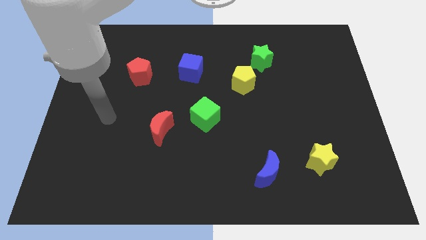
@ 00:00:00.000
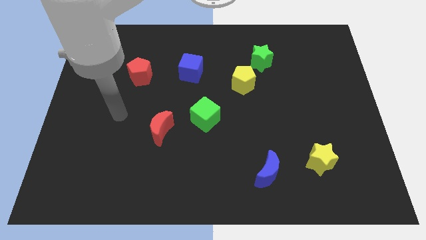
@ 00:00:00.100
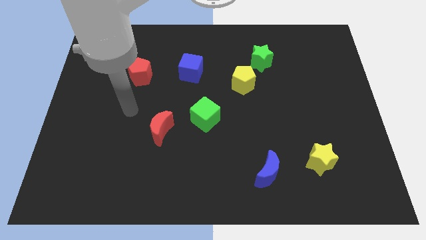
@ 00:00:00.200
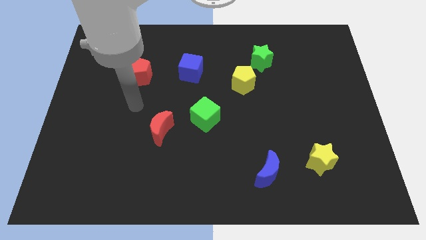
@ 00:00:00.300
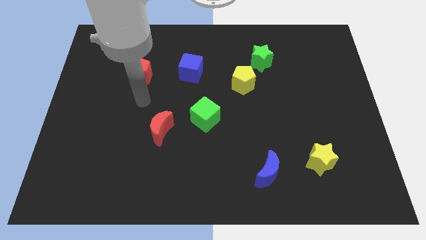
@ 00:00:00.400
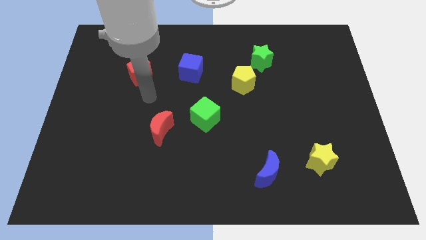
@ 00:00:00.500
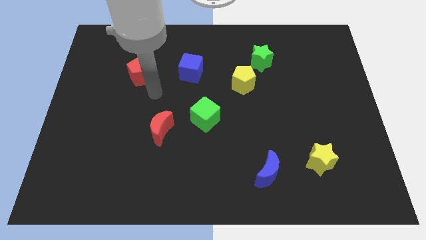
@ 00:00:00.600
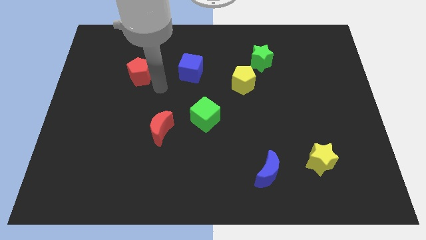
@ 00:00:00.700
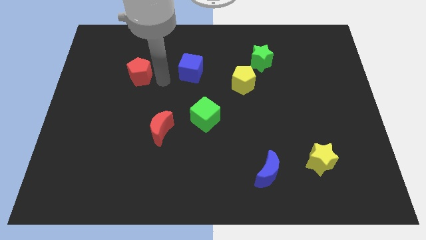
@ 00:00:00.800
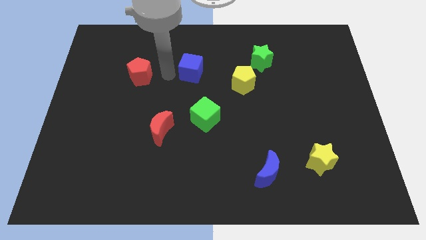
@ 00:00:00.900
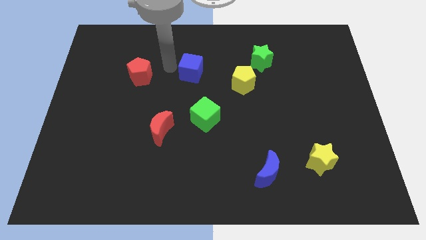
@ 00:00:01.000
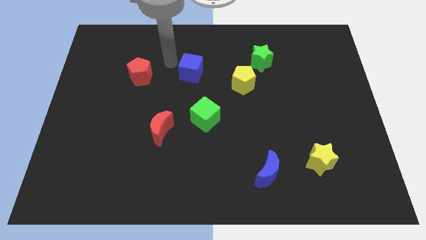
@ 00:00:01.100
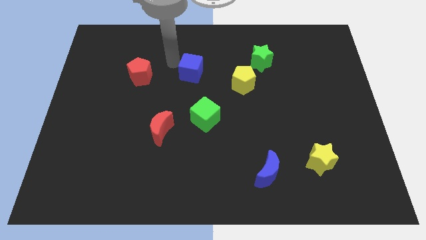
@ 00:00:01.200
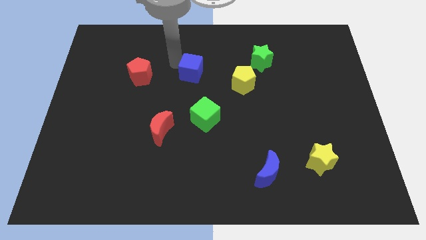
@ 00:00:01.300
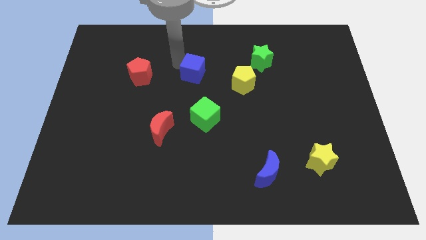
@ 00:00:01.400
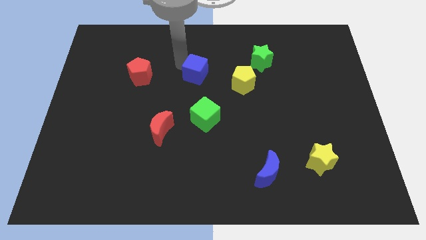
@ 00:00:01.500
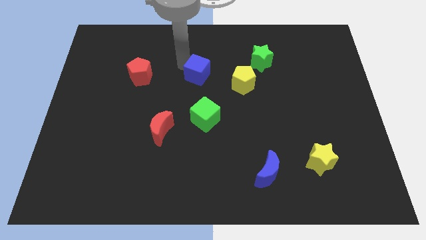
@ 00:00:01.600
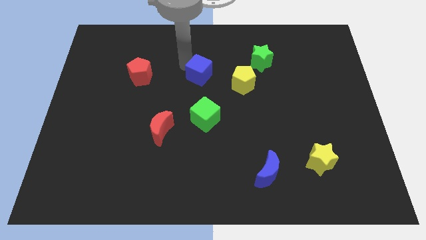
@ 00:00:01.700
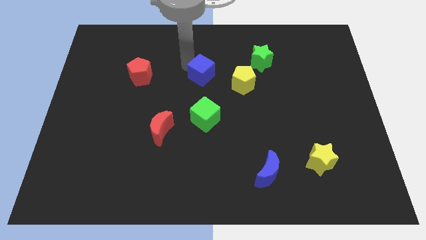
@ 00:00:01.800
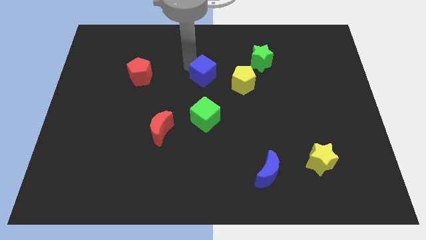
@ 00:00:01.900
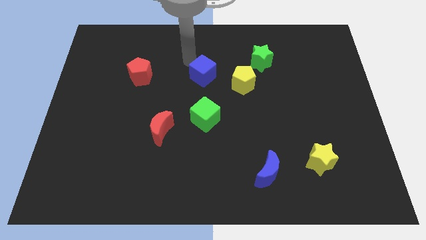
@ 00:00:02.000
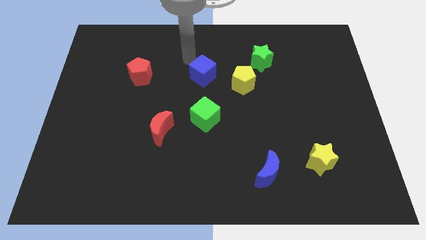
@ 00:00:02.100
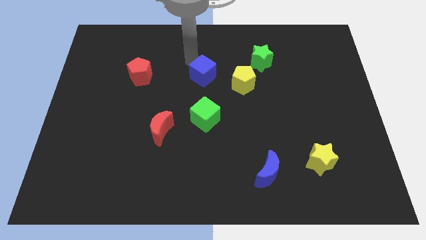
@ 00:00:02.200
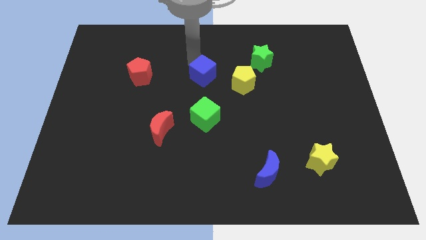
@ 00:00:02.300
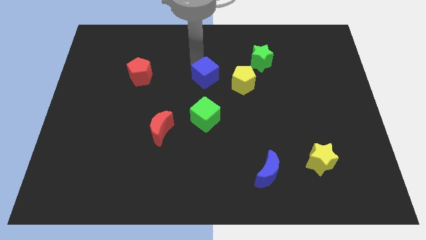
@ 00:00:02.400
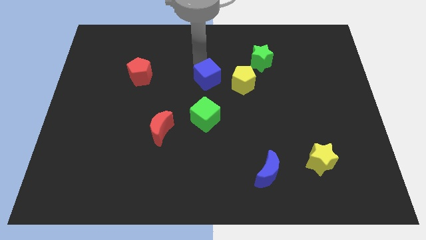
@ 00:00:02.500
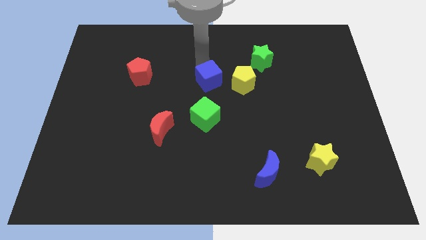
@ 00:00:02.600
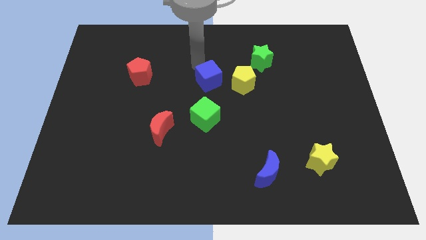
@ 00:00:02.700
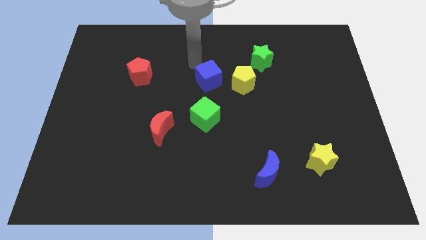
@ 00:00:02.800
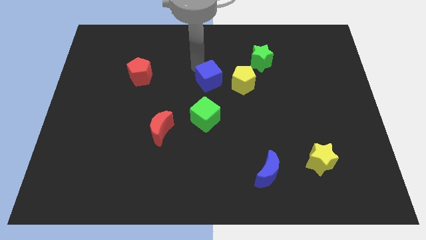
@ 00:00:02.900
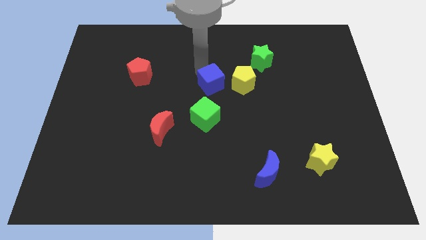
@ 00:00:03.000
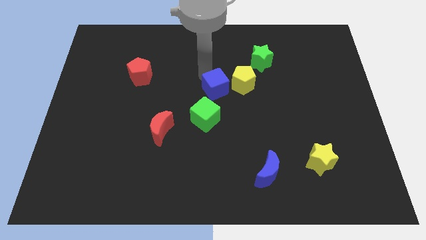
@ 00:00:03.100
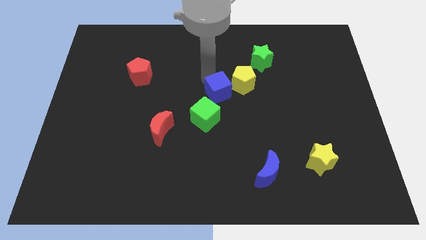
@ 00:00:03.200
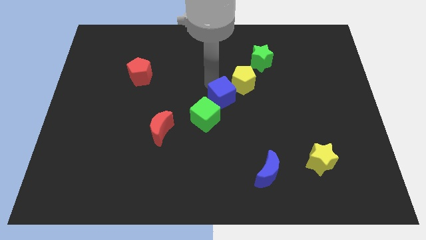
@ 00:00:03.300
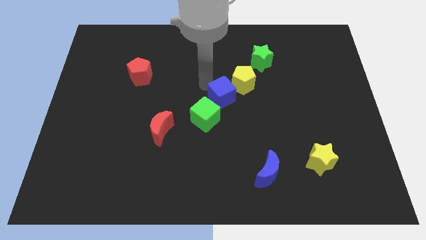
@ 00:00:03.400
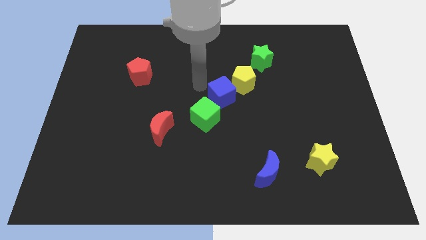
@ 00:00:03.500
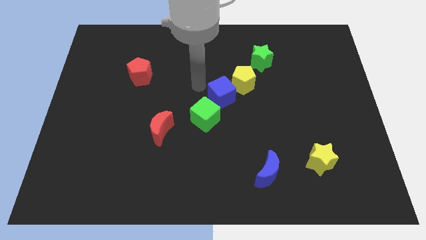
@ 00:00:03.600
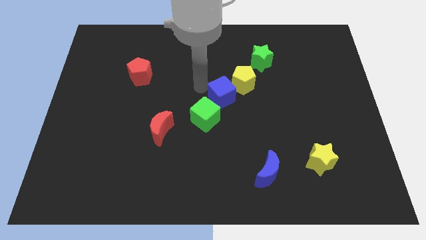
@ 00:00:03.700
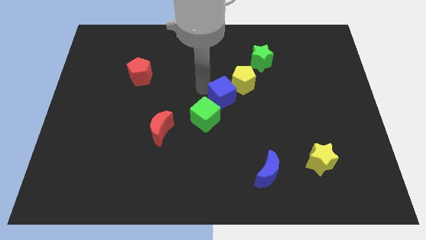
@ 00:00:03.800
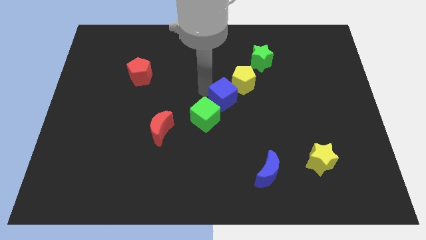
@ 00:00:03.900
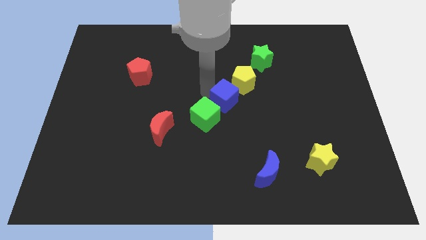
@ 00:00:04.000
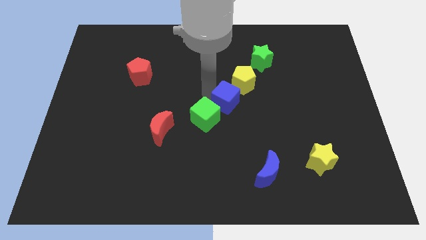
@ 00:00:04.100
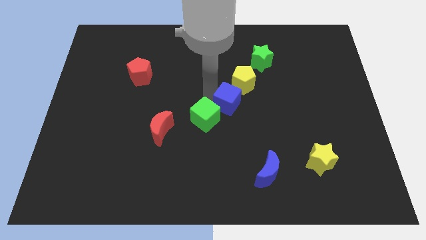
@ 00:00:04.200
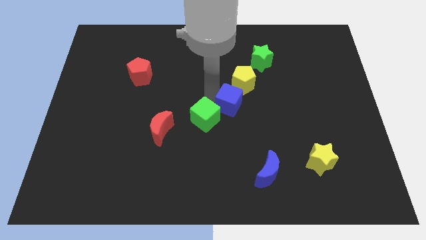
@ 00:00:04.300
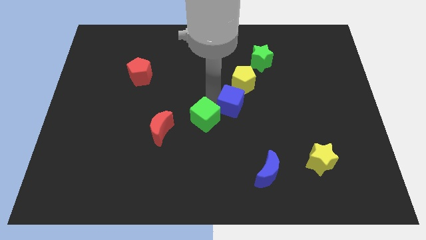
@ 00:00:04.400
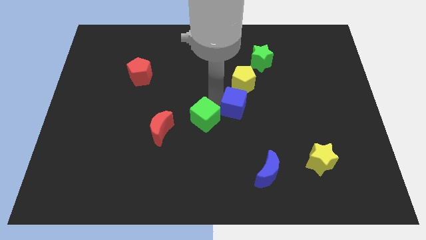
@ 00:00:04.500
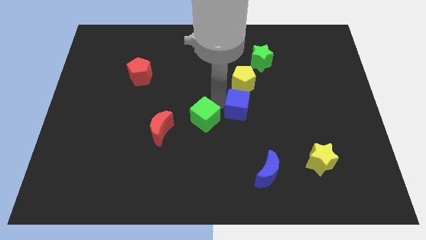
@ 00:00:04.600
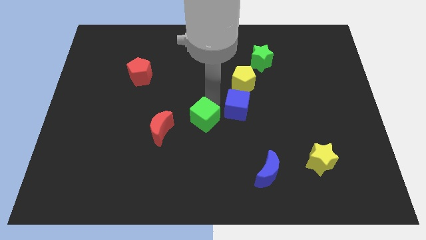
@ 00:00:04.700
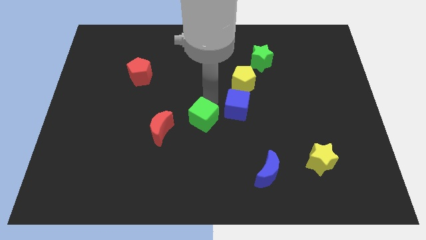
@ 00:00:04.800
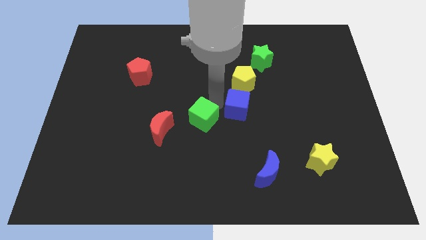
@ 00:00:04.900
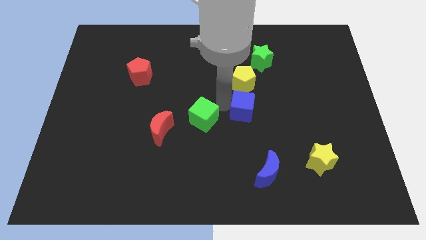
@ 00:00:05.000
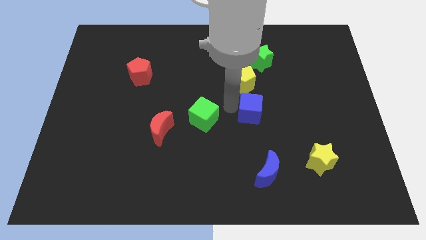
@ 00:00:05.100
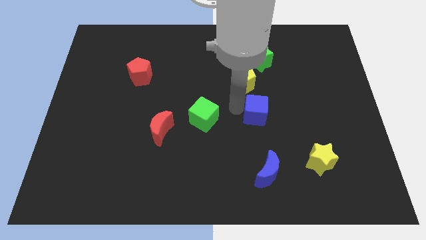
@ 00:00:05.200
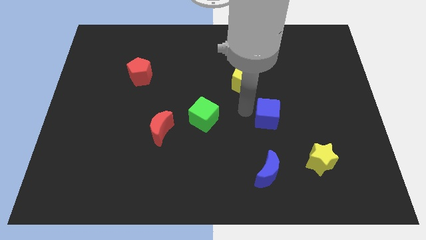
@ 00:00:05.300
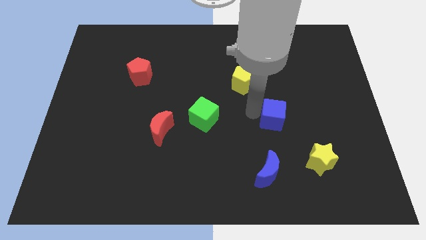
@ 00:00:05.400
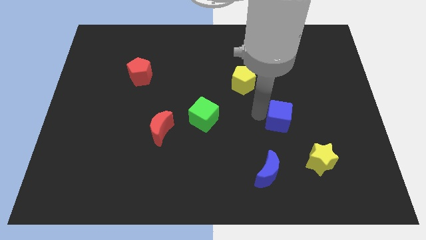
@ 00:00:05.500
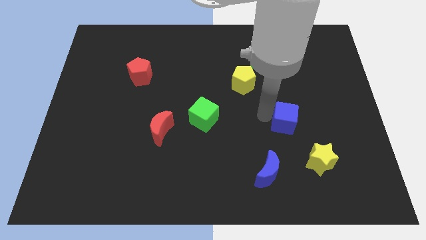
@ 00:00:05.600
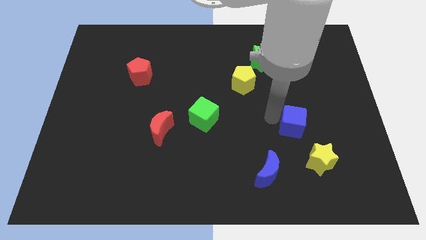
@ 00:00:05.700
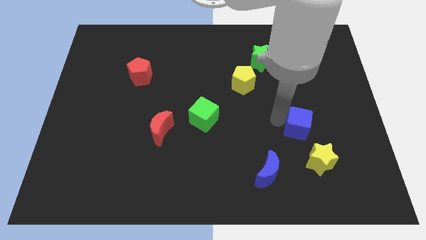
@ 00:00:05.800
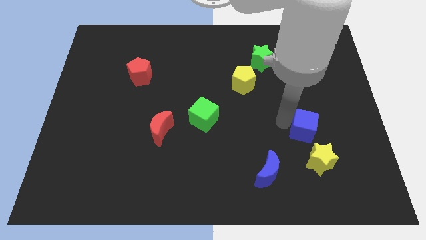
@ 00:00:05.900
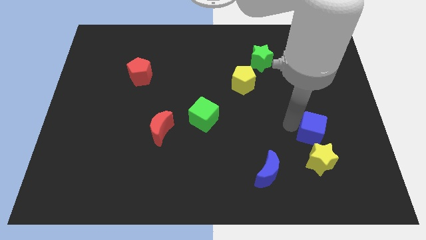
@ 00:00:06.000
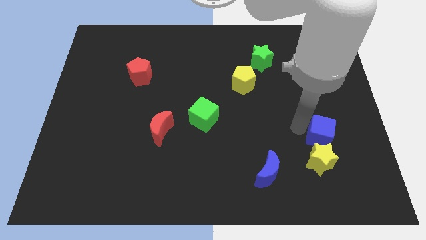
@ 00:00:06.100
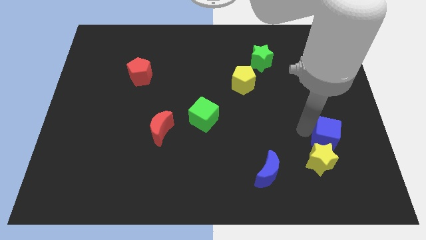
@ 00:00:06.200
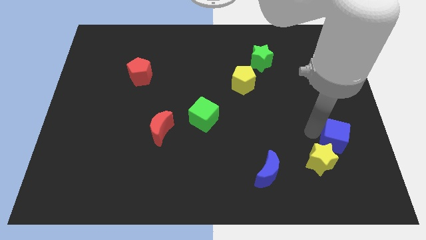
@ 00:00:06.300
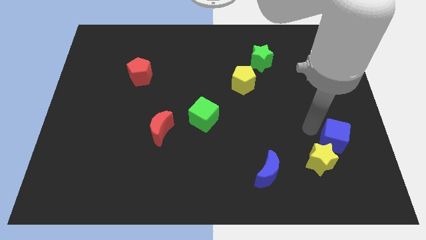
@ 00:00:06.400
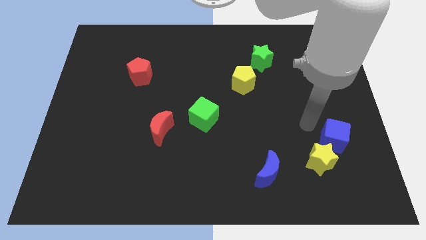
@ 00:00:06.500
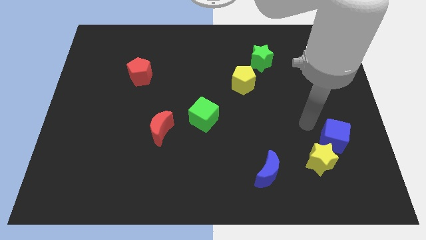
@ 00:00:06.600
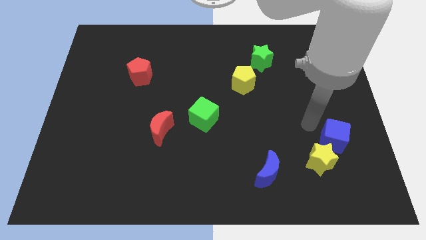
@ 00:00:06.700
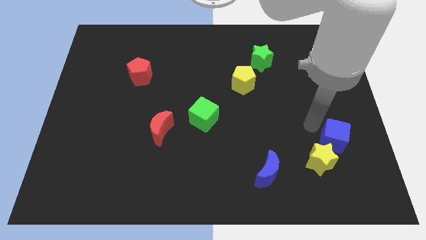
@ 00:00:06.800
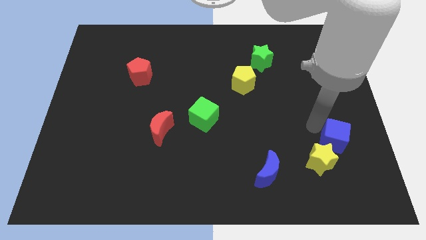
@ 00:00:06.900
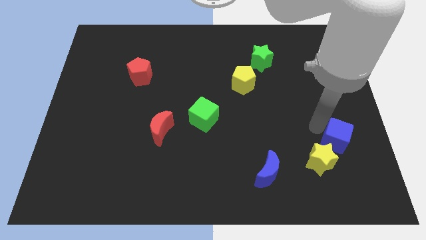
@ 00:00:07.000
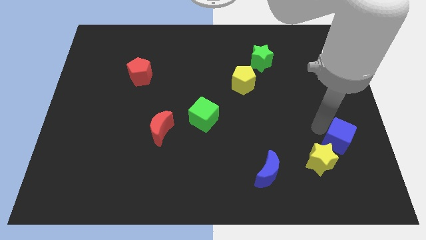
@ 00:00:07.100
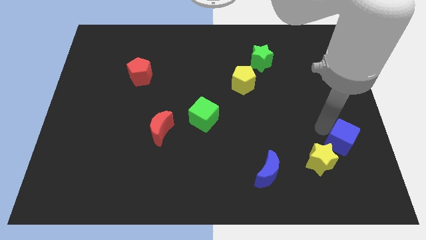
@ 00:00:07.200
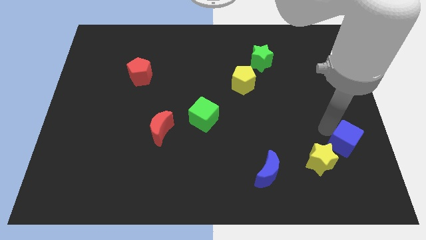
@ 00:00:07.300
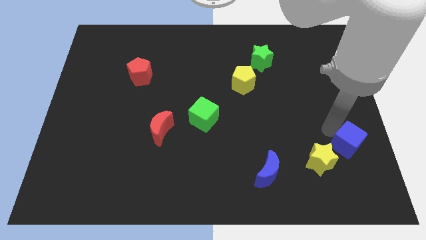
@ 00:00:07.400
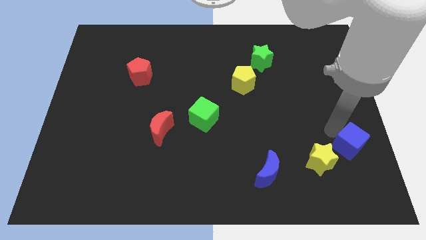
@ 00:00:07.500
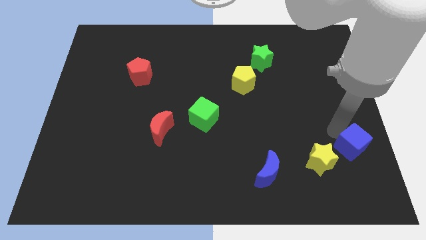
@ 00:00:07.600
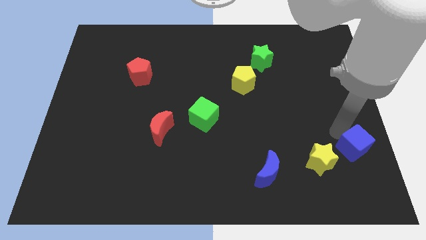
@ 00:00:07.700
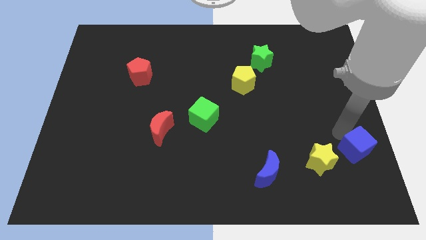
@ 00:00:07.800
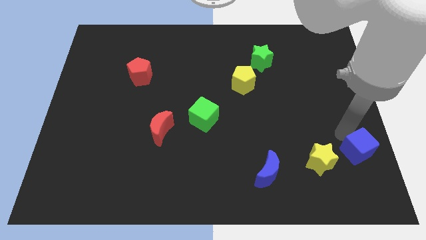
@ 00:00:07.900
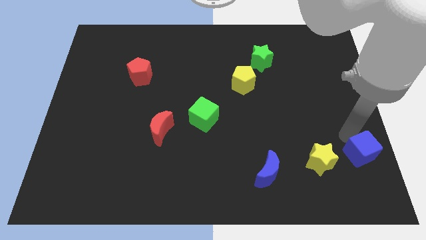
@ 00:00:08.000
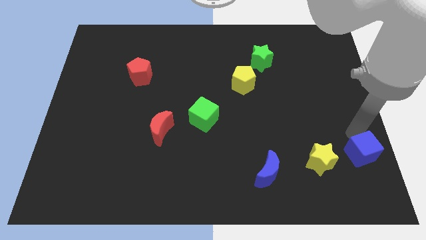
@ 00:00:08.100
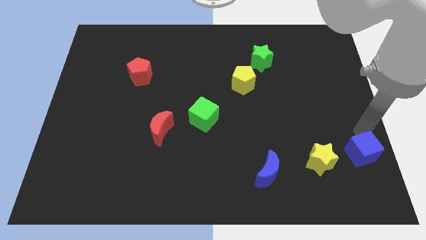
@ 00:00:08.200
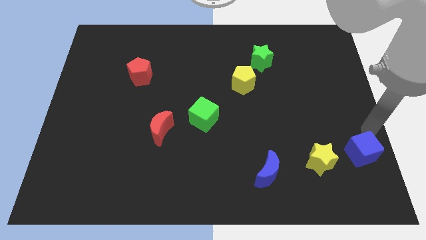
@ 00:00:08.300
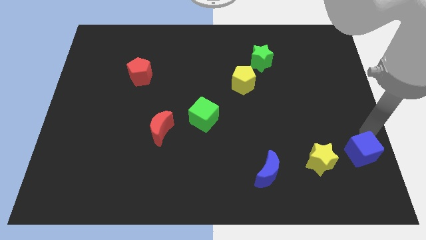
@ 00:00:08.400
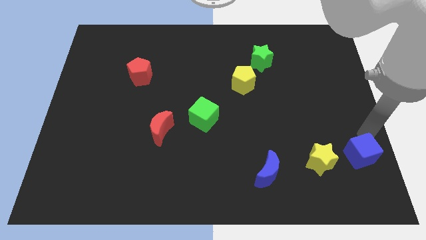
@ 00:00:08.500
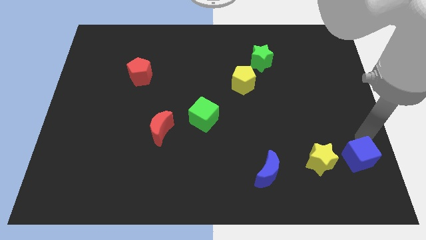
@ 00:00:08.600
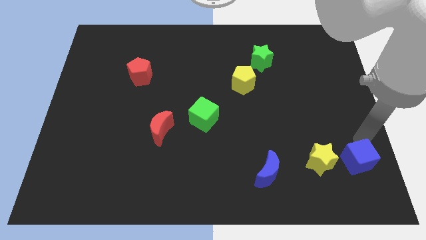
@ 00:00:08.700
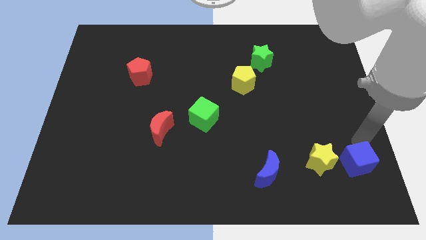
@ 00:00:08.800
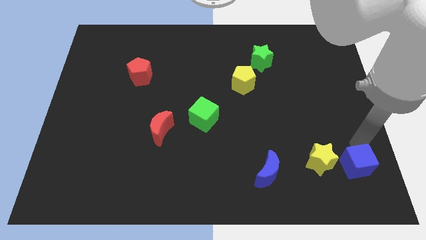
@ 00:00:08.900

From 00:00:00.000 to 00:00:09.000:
slide the blue cube diagonally down and to the right of the yellow star
